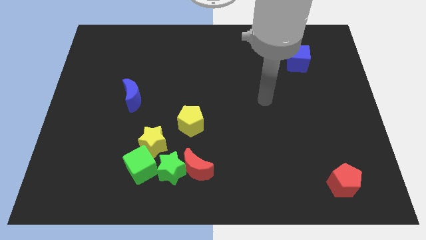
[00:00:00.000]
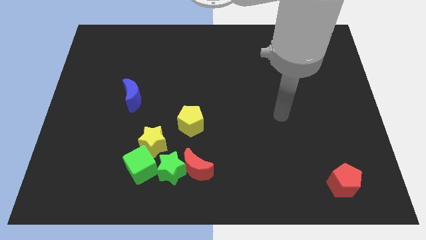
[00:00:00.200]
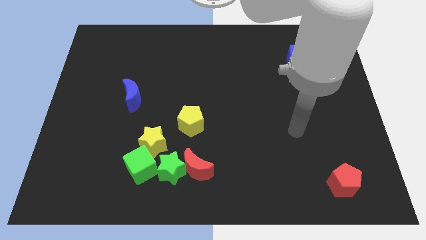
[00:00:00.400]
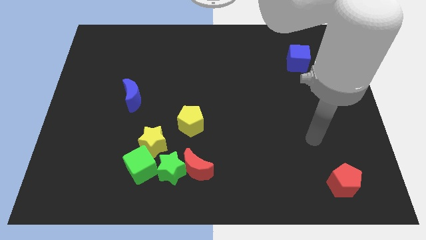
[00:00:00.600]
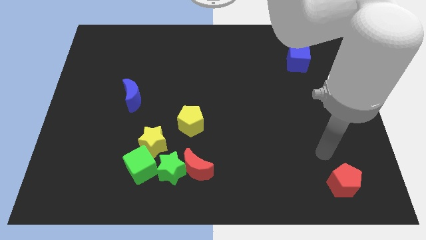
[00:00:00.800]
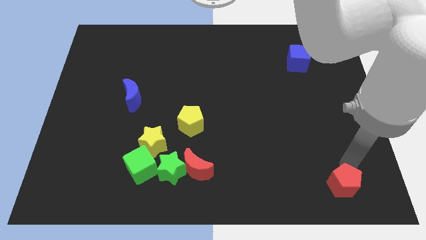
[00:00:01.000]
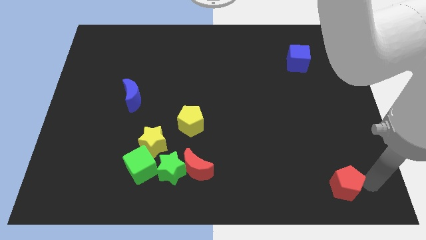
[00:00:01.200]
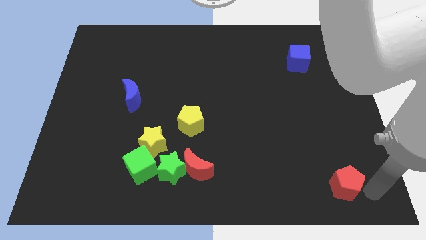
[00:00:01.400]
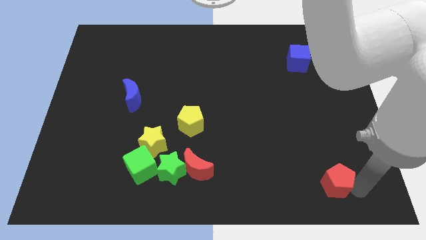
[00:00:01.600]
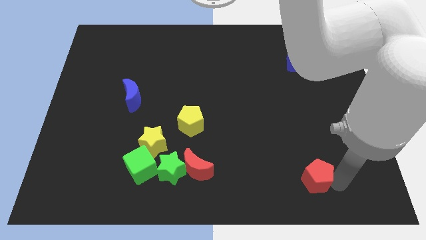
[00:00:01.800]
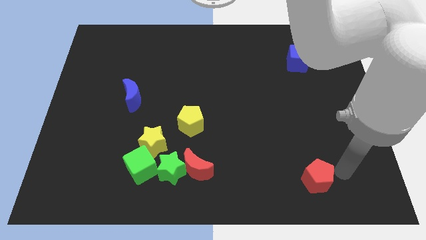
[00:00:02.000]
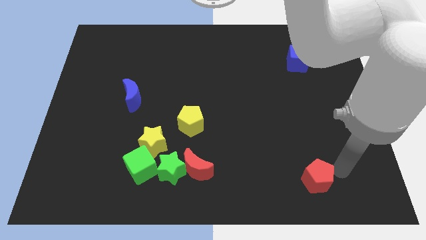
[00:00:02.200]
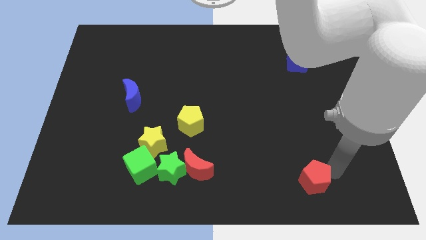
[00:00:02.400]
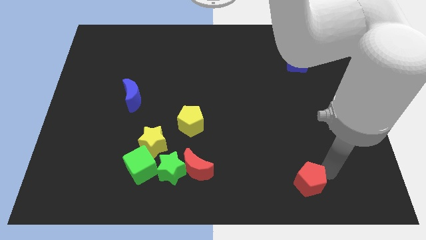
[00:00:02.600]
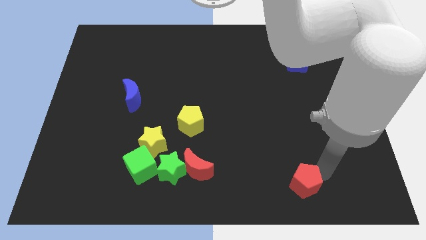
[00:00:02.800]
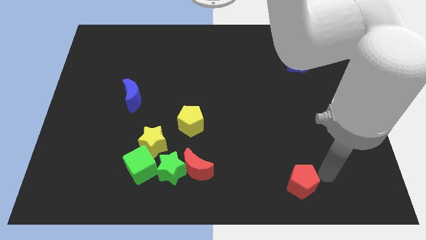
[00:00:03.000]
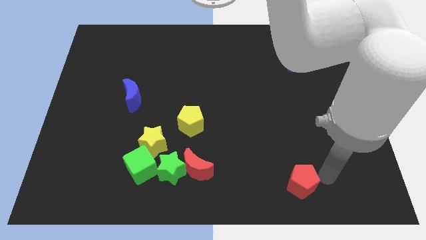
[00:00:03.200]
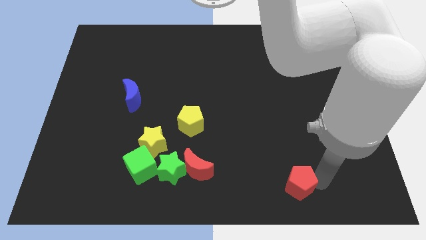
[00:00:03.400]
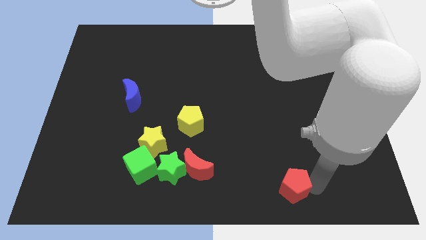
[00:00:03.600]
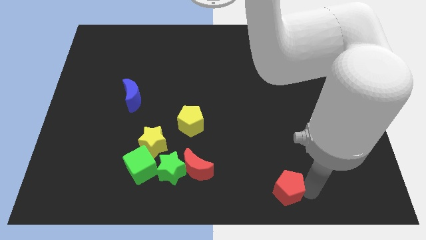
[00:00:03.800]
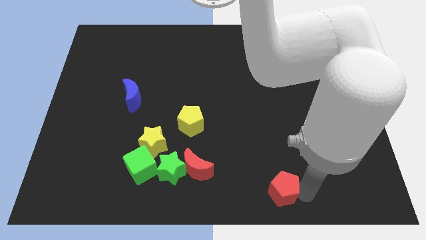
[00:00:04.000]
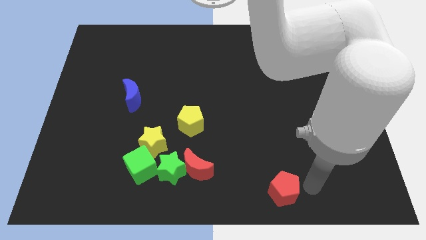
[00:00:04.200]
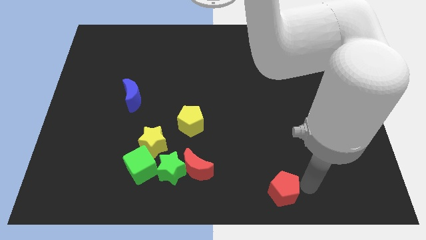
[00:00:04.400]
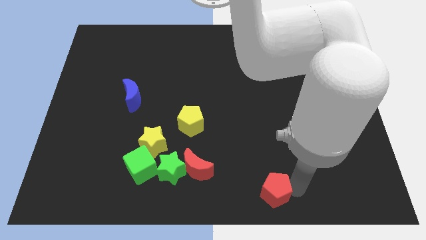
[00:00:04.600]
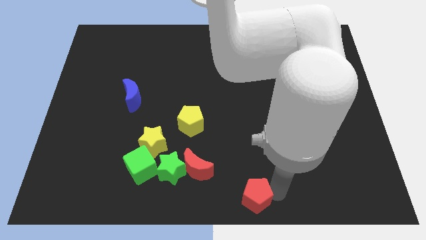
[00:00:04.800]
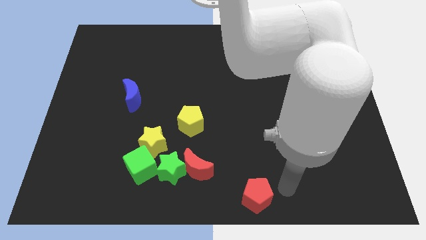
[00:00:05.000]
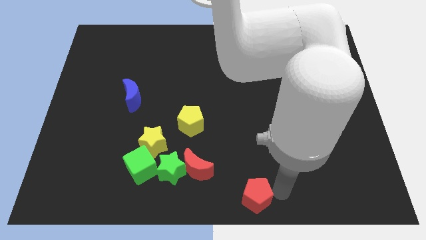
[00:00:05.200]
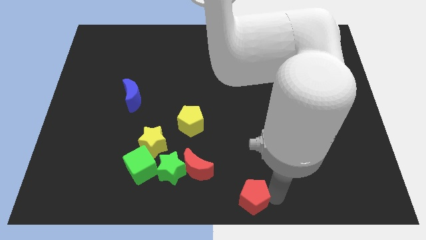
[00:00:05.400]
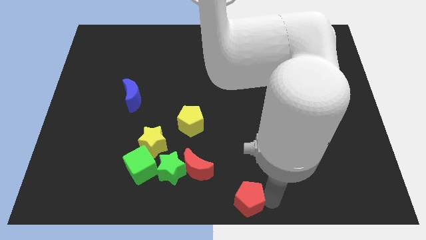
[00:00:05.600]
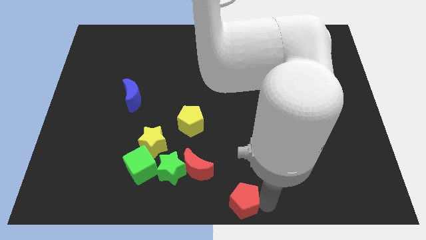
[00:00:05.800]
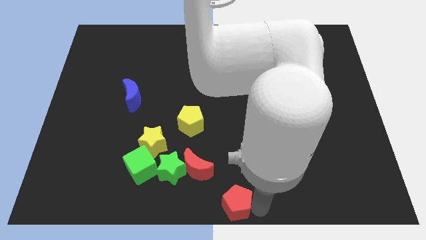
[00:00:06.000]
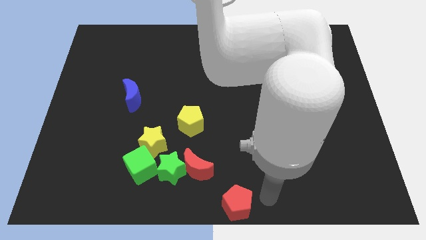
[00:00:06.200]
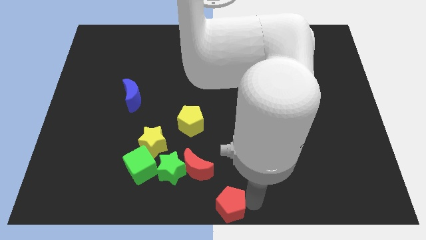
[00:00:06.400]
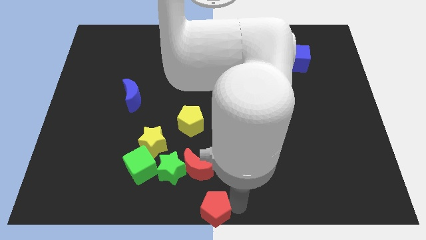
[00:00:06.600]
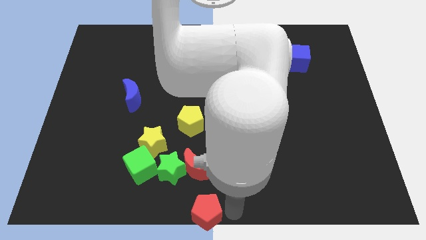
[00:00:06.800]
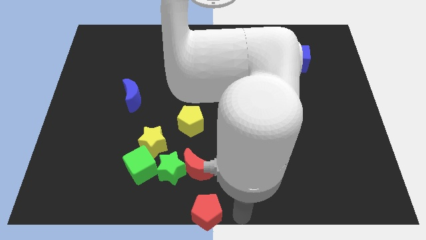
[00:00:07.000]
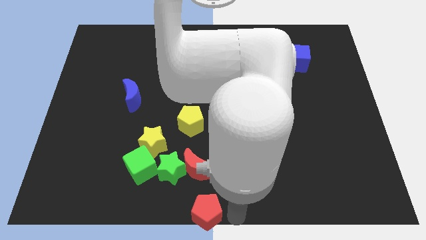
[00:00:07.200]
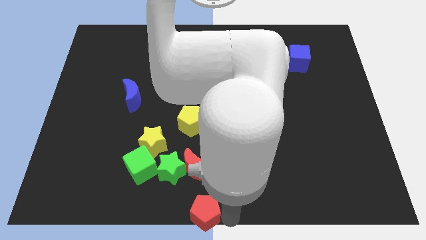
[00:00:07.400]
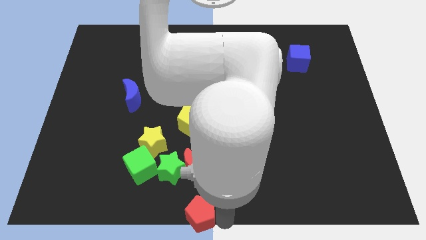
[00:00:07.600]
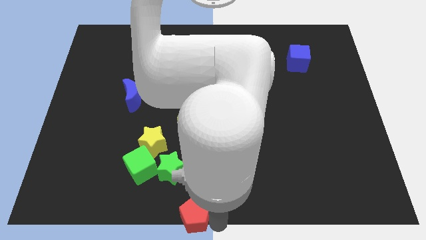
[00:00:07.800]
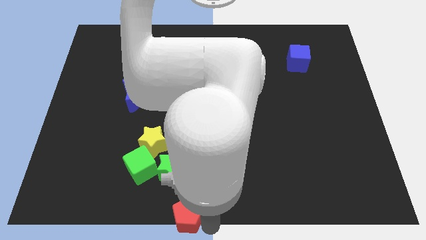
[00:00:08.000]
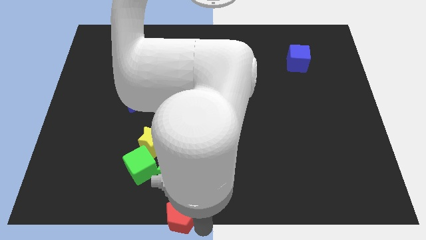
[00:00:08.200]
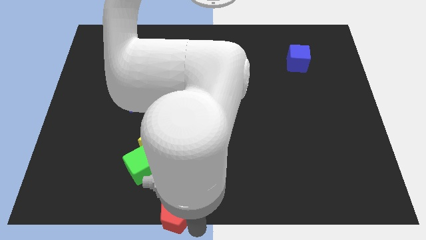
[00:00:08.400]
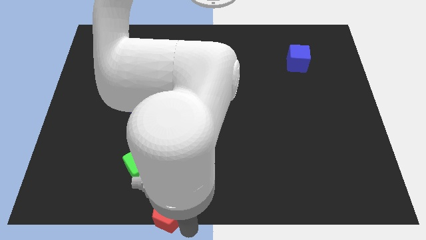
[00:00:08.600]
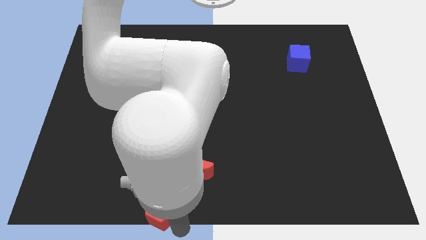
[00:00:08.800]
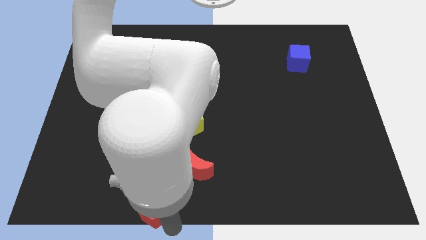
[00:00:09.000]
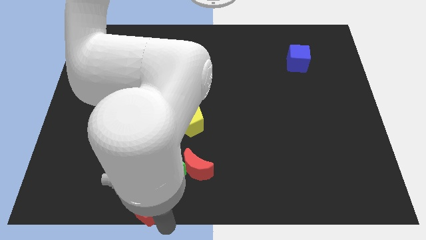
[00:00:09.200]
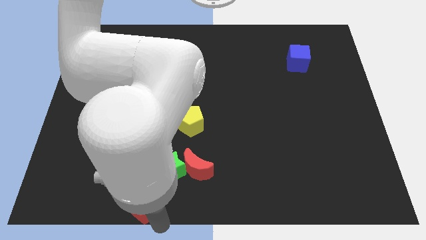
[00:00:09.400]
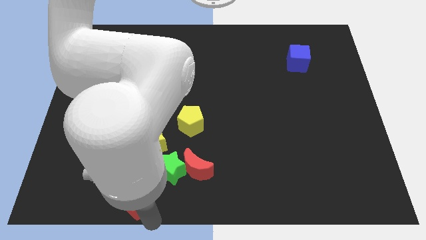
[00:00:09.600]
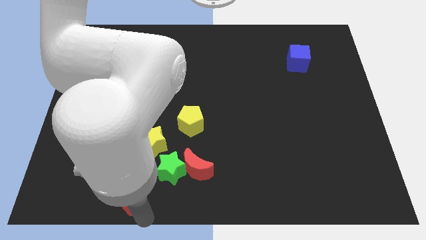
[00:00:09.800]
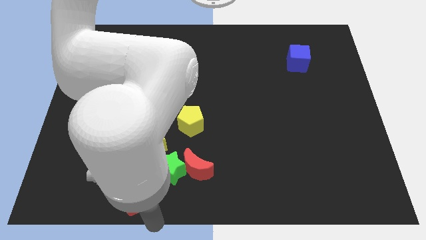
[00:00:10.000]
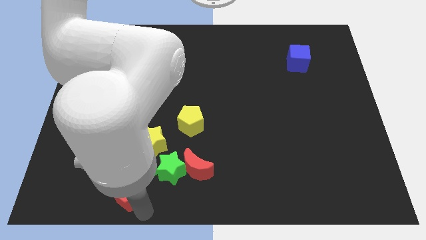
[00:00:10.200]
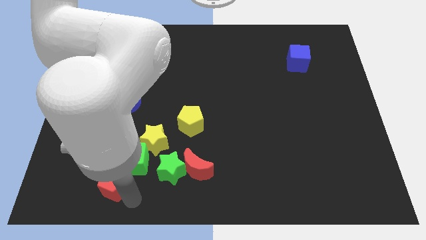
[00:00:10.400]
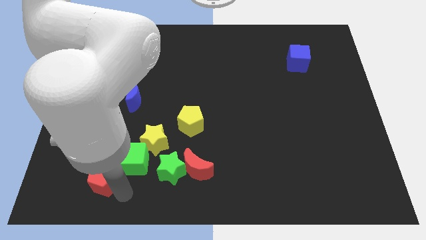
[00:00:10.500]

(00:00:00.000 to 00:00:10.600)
put the red pentagon left of the green cube
